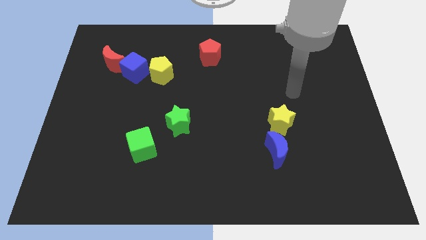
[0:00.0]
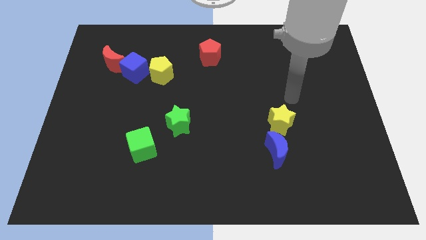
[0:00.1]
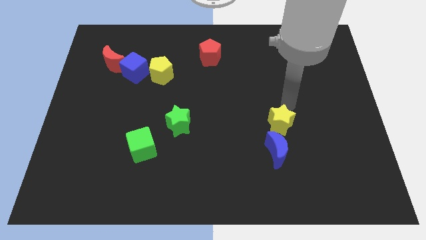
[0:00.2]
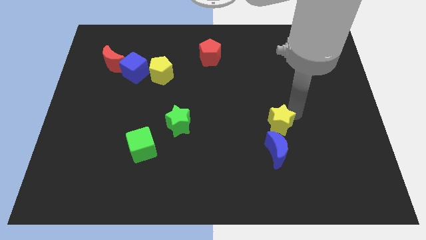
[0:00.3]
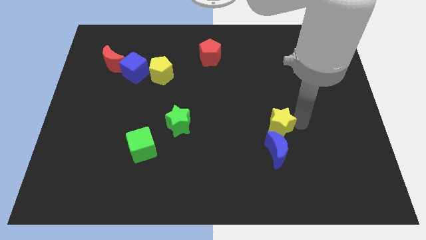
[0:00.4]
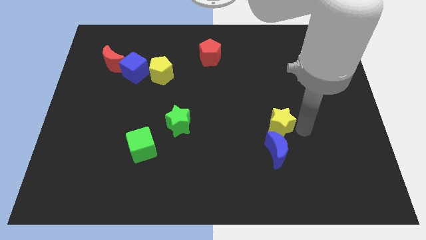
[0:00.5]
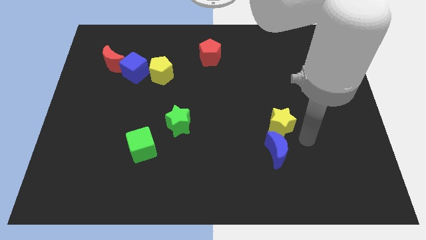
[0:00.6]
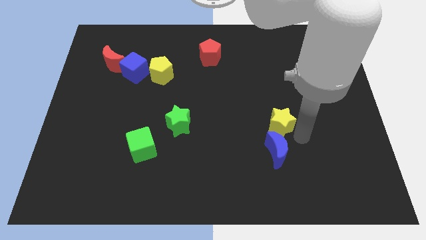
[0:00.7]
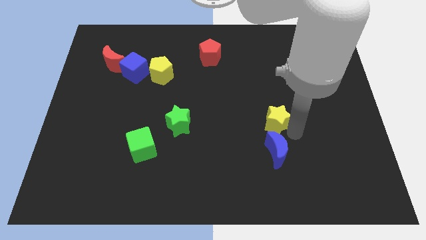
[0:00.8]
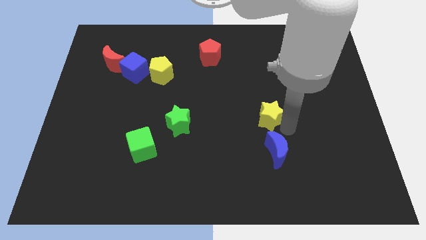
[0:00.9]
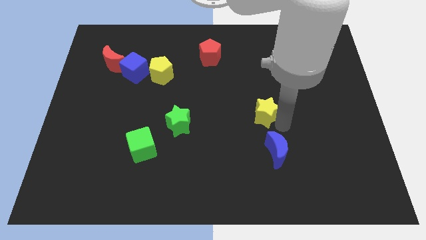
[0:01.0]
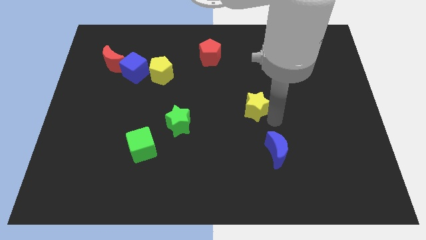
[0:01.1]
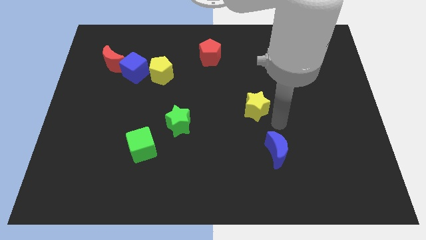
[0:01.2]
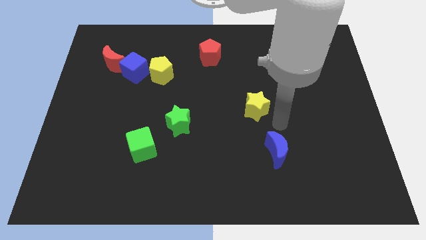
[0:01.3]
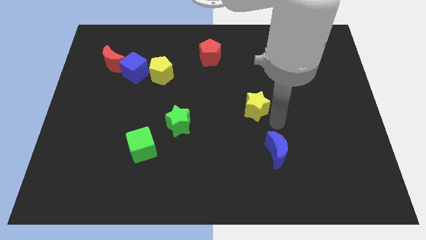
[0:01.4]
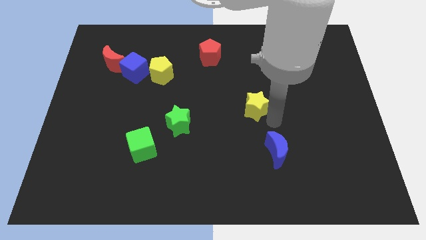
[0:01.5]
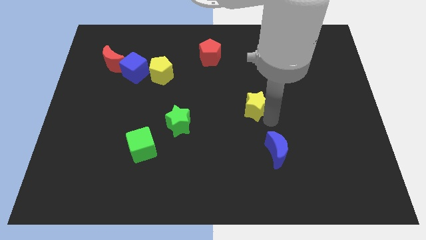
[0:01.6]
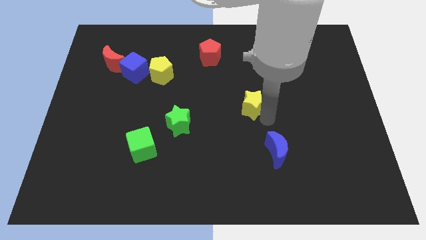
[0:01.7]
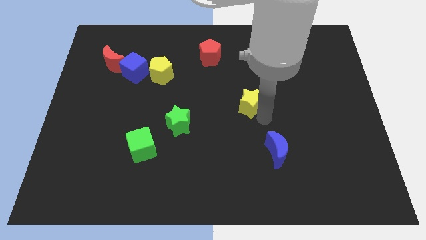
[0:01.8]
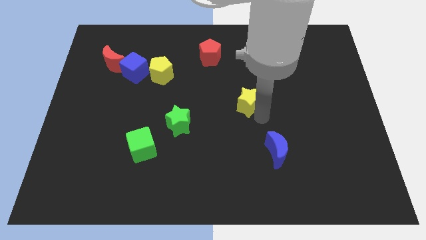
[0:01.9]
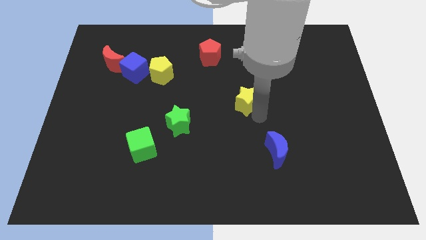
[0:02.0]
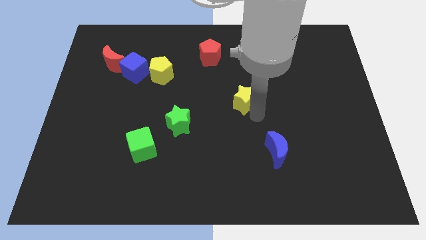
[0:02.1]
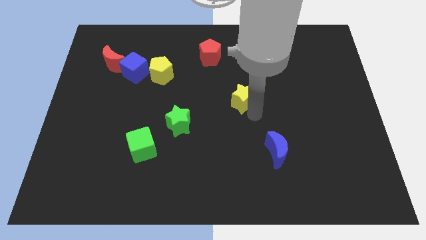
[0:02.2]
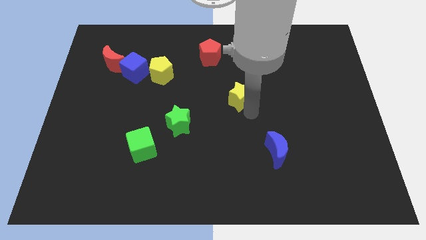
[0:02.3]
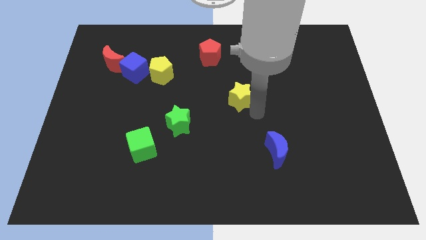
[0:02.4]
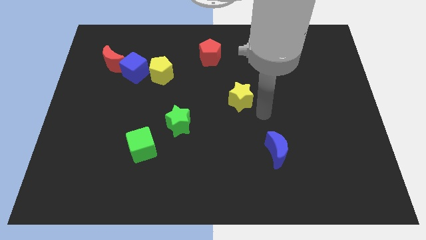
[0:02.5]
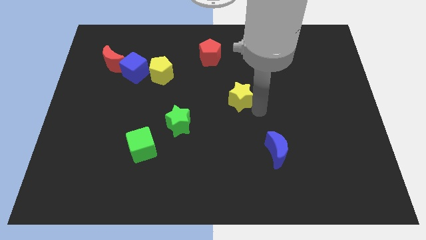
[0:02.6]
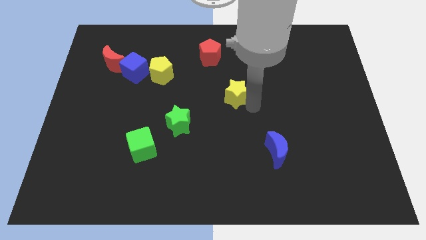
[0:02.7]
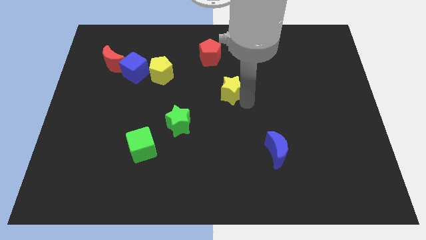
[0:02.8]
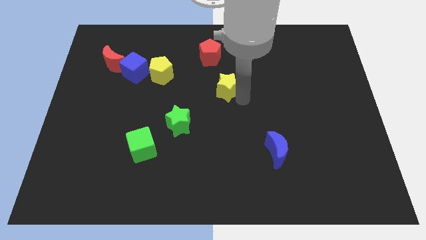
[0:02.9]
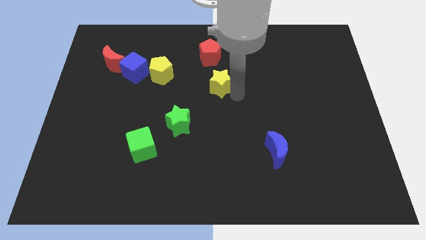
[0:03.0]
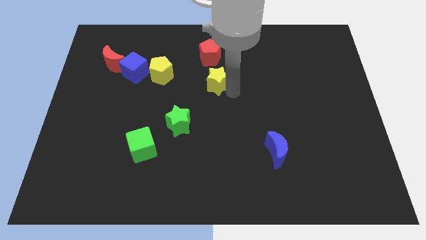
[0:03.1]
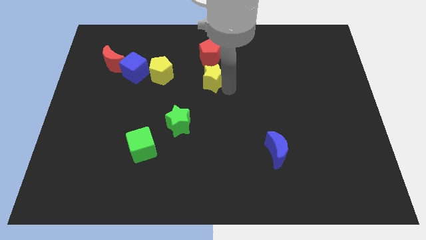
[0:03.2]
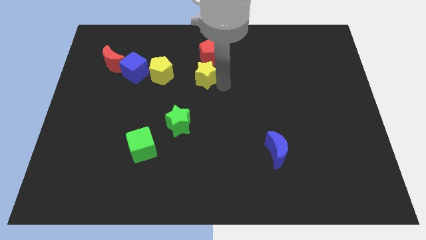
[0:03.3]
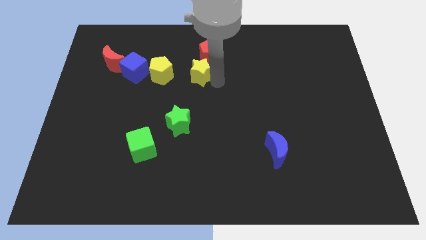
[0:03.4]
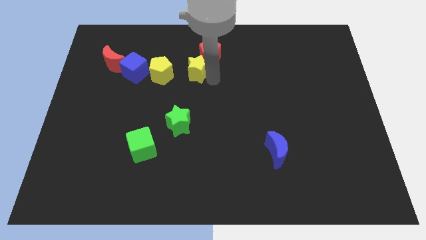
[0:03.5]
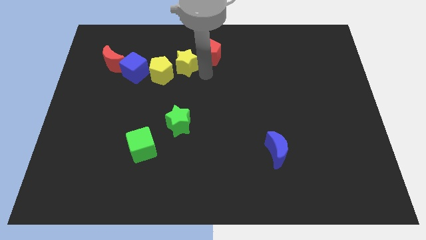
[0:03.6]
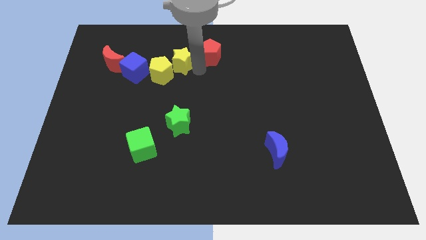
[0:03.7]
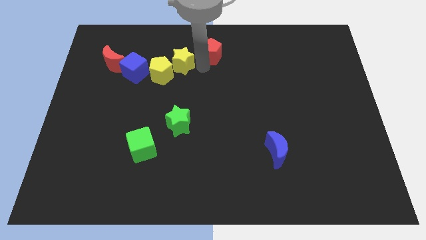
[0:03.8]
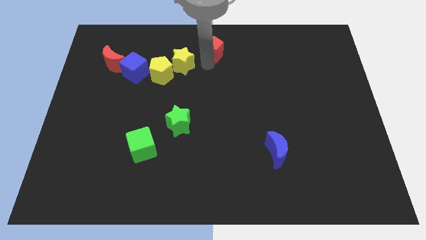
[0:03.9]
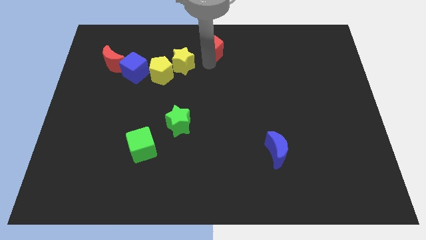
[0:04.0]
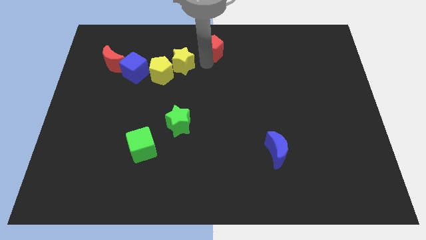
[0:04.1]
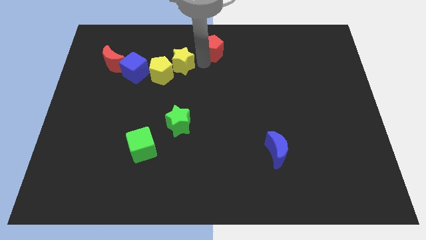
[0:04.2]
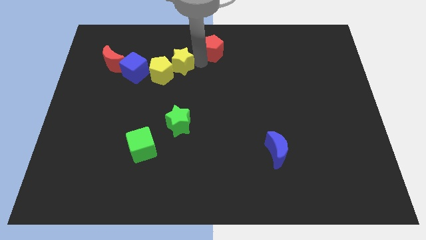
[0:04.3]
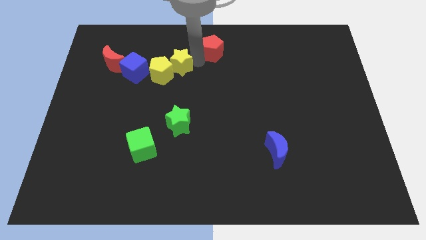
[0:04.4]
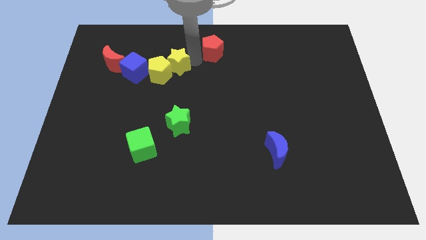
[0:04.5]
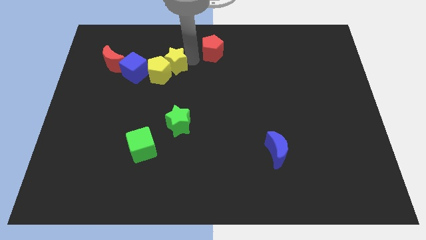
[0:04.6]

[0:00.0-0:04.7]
push the yellow star to the right side of the red moon

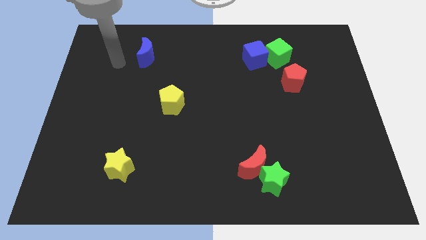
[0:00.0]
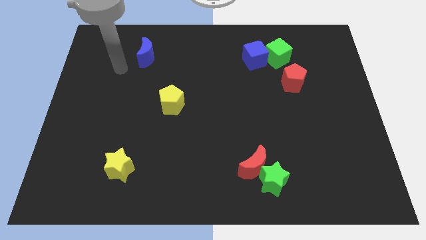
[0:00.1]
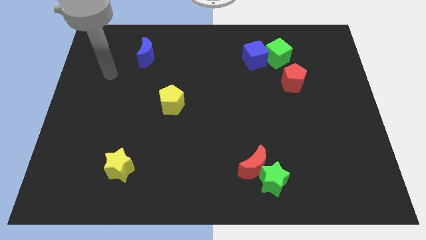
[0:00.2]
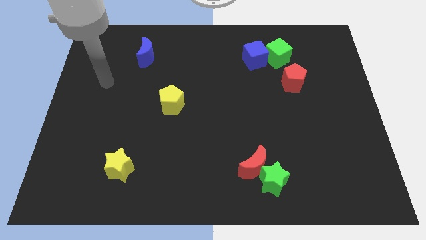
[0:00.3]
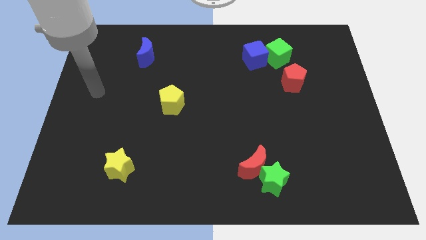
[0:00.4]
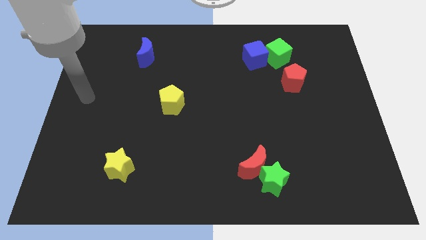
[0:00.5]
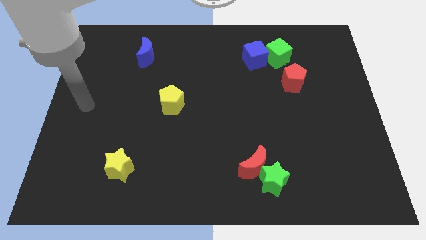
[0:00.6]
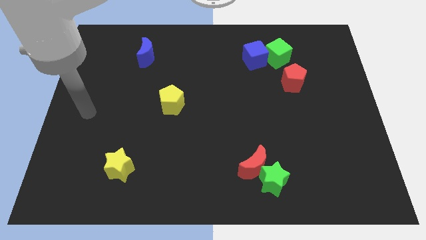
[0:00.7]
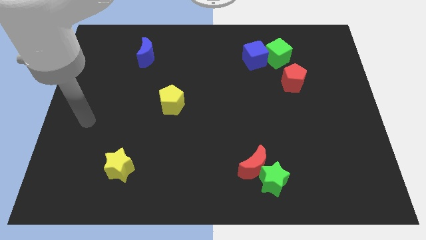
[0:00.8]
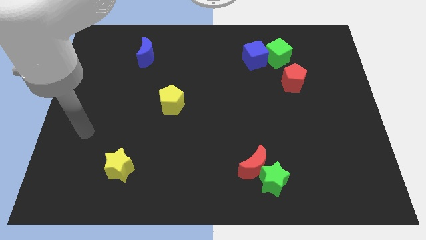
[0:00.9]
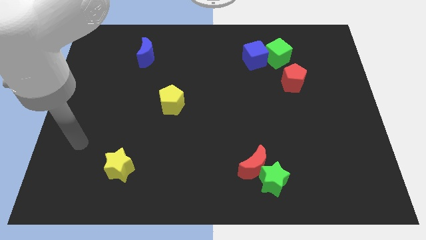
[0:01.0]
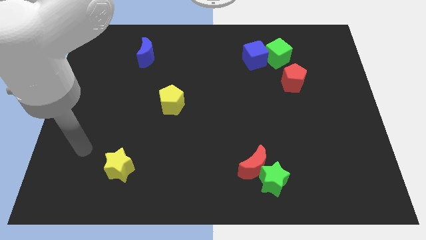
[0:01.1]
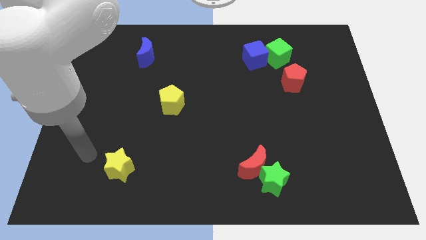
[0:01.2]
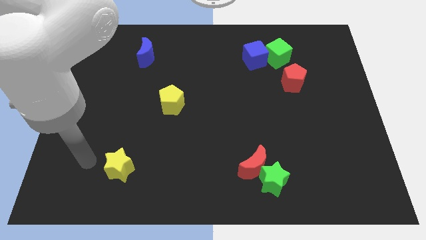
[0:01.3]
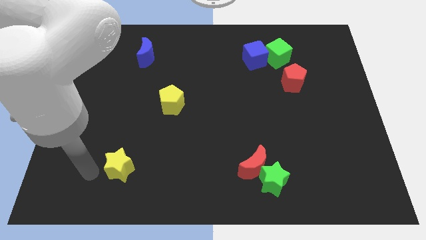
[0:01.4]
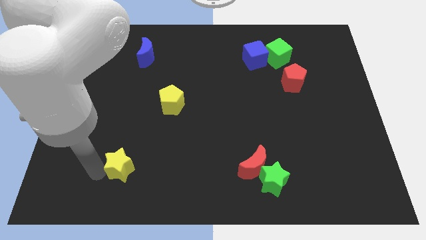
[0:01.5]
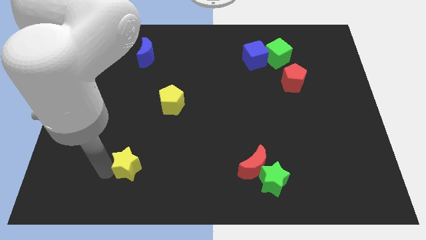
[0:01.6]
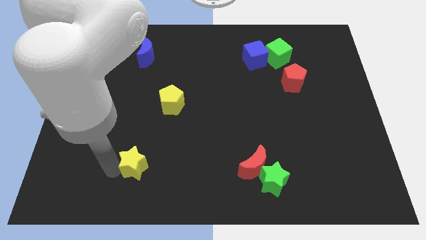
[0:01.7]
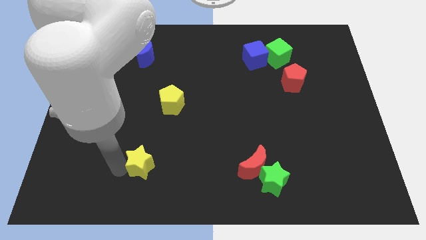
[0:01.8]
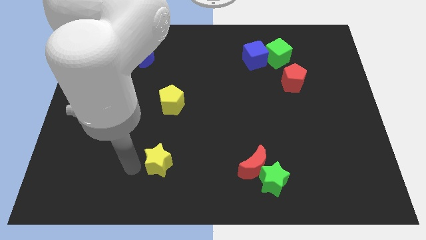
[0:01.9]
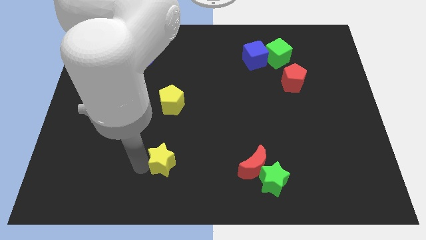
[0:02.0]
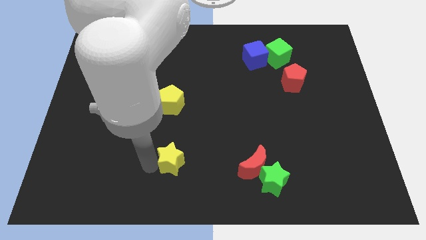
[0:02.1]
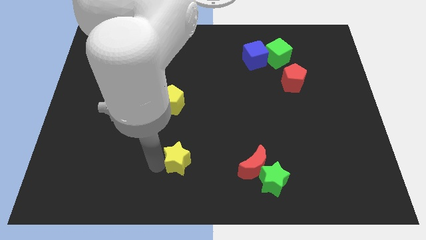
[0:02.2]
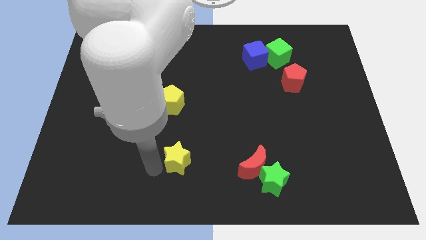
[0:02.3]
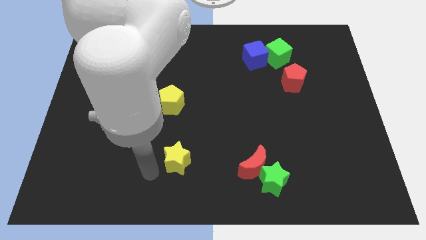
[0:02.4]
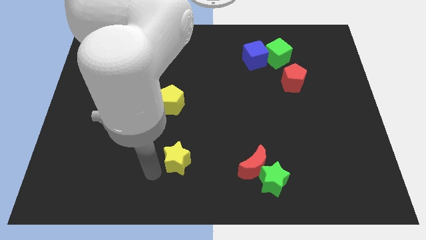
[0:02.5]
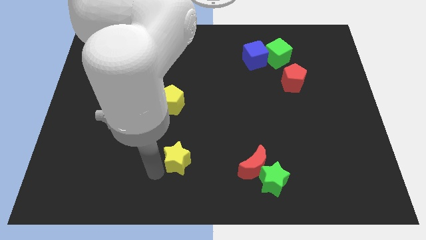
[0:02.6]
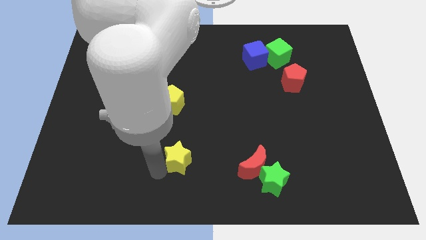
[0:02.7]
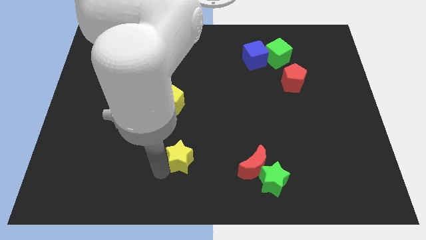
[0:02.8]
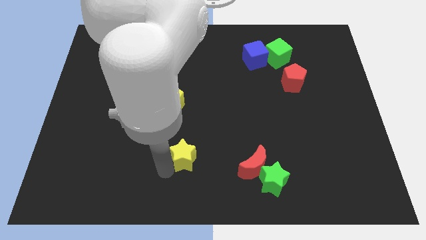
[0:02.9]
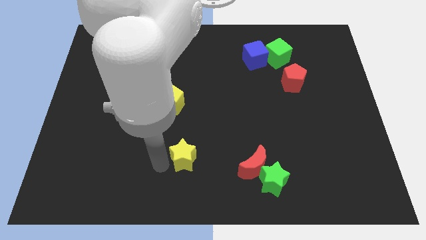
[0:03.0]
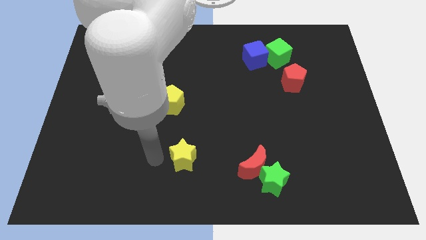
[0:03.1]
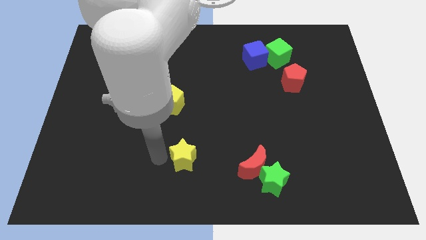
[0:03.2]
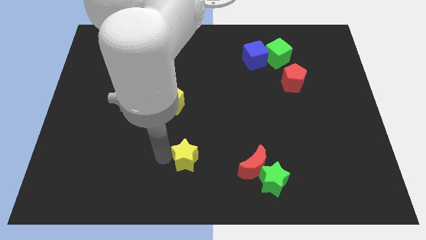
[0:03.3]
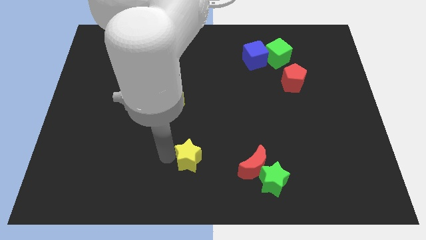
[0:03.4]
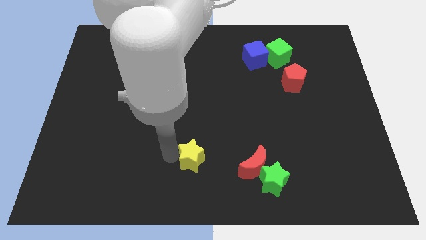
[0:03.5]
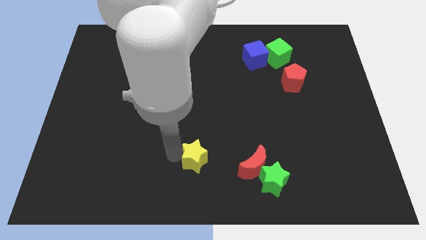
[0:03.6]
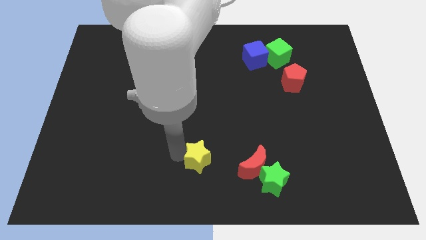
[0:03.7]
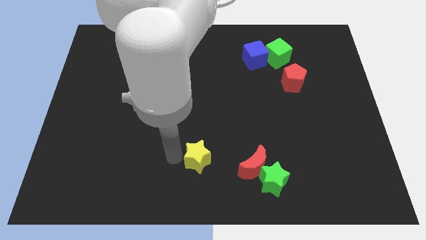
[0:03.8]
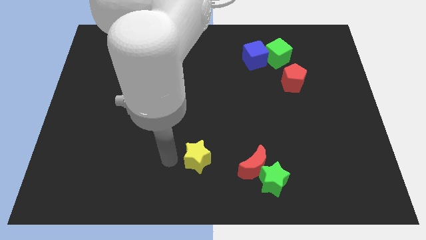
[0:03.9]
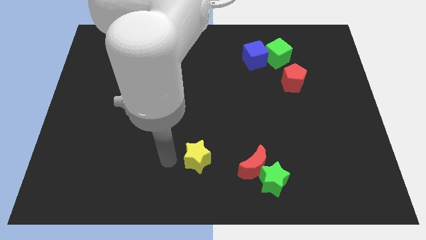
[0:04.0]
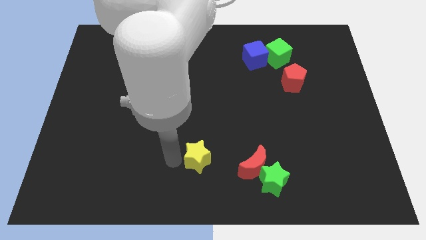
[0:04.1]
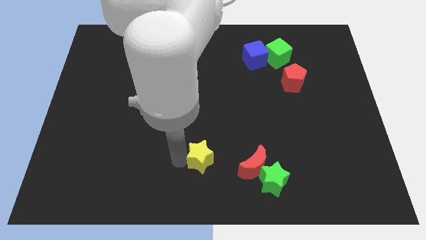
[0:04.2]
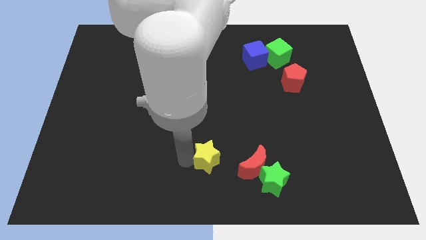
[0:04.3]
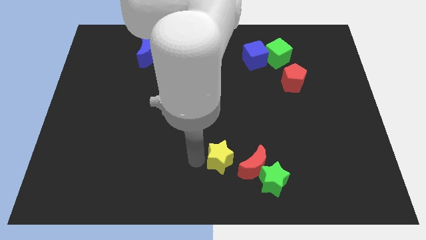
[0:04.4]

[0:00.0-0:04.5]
put the yellow star to the top left side of the green star
